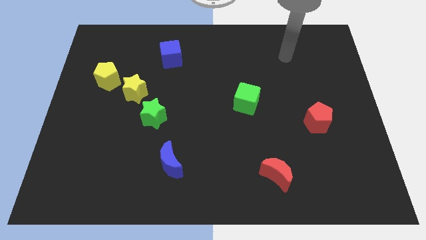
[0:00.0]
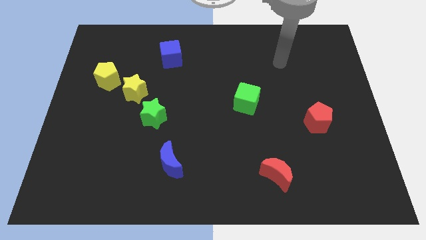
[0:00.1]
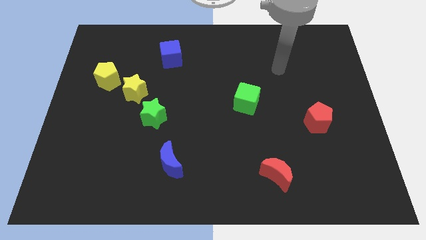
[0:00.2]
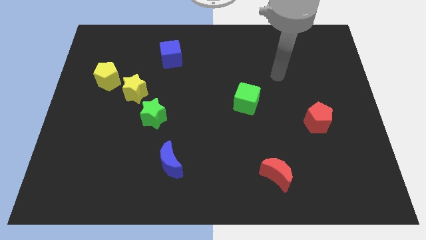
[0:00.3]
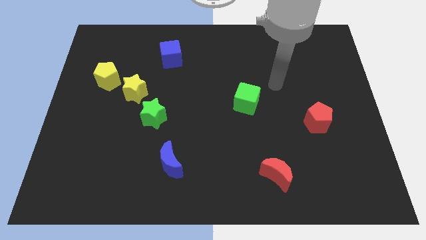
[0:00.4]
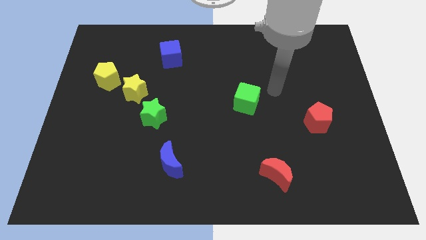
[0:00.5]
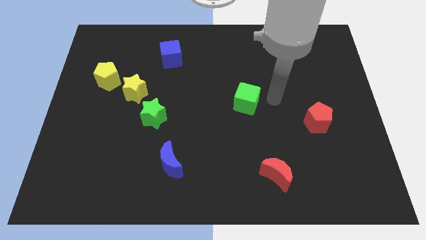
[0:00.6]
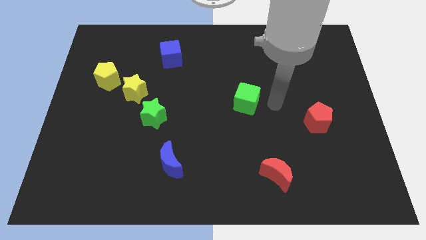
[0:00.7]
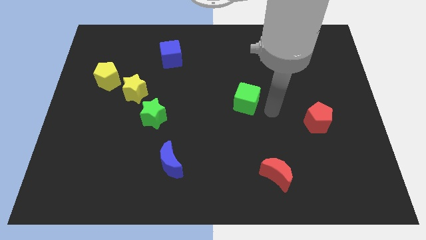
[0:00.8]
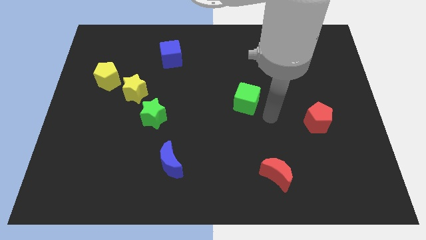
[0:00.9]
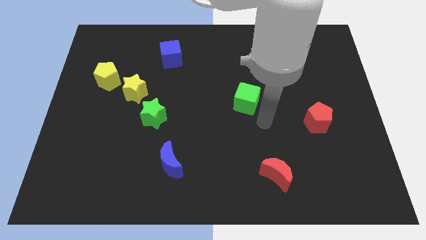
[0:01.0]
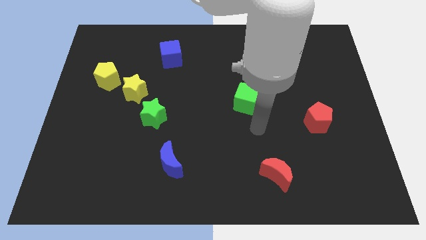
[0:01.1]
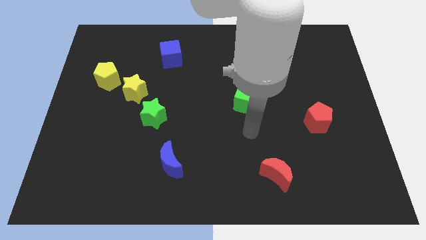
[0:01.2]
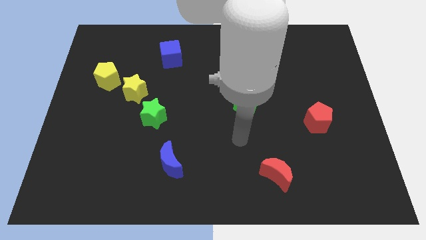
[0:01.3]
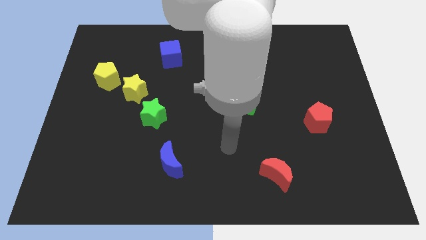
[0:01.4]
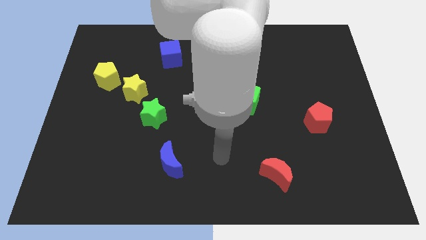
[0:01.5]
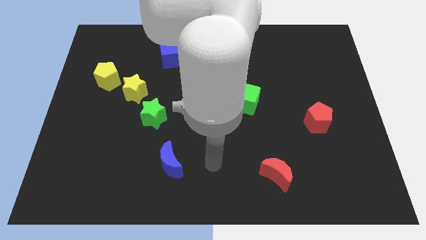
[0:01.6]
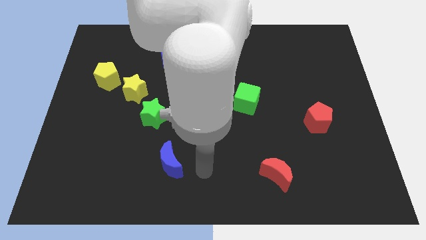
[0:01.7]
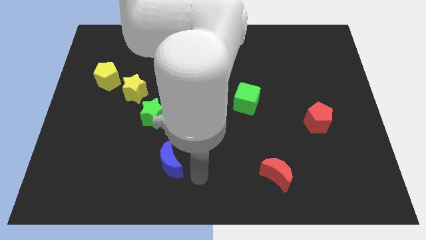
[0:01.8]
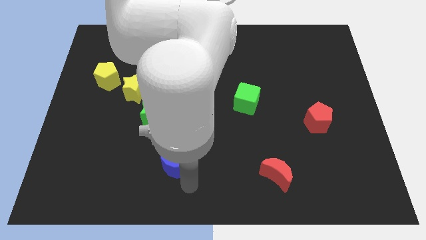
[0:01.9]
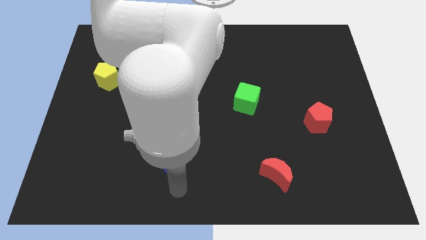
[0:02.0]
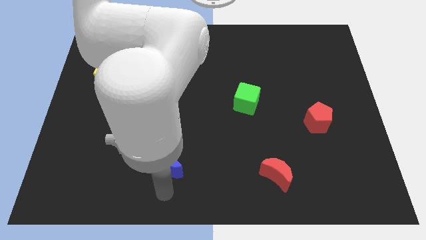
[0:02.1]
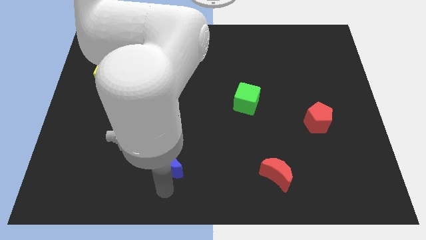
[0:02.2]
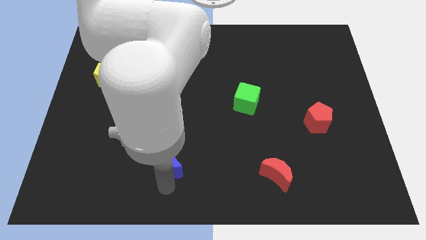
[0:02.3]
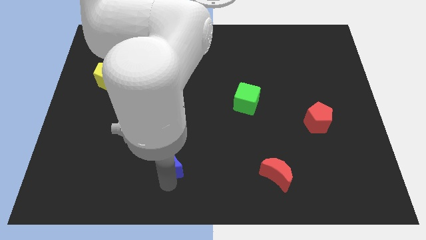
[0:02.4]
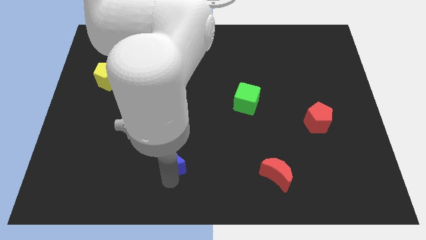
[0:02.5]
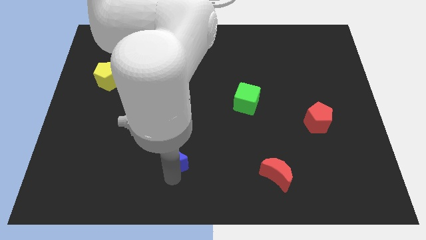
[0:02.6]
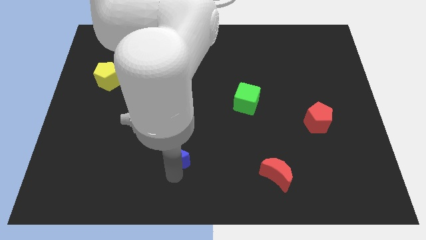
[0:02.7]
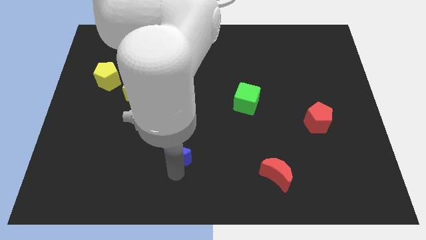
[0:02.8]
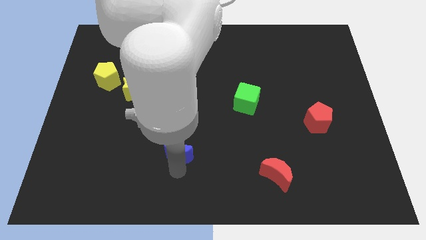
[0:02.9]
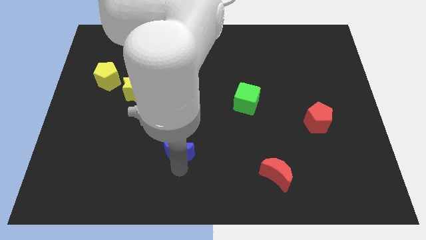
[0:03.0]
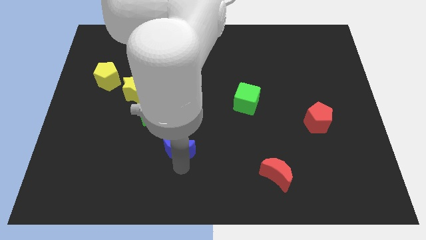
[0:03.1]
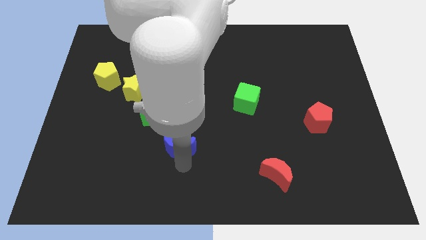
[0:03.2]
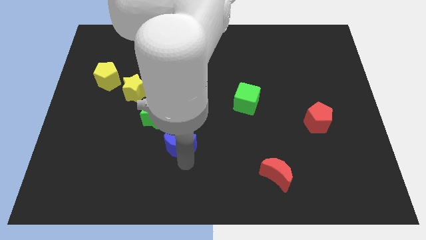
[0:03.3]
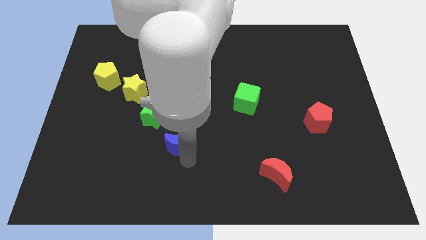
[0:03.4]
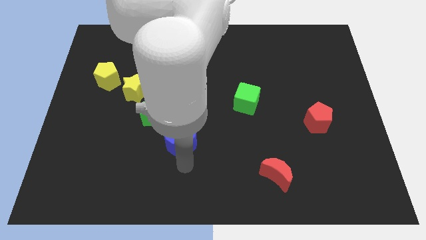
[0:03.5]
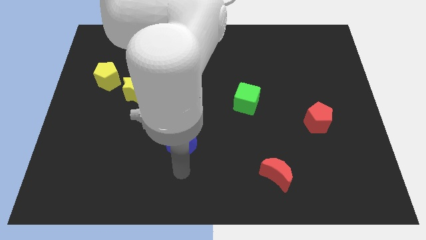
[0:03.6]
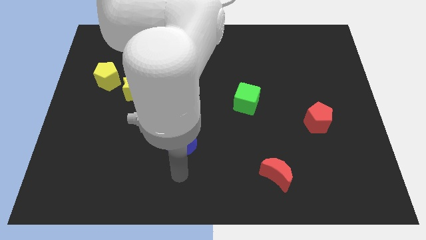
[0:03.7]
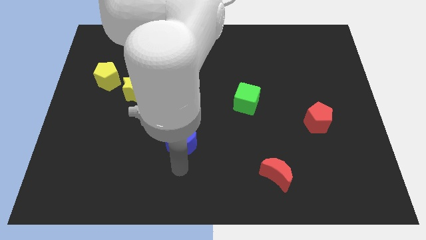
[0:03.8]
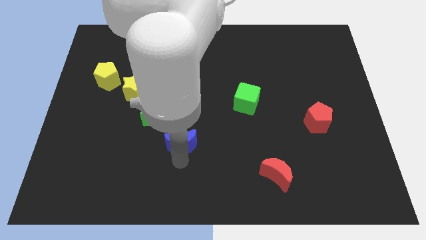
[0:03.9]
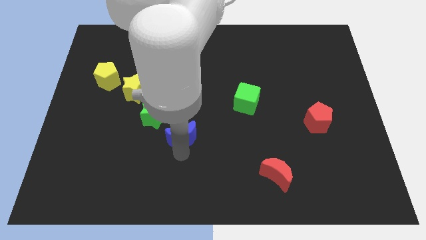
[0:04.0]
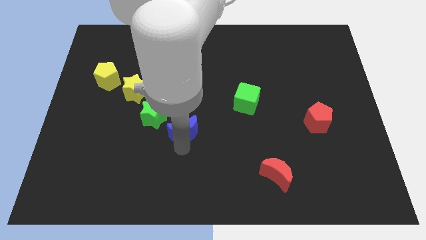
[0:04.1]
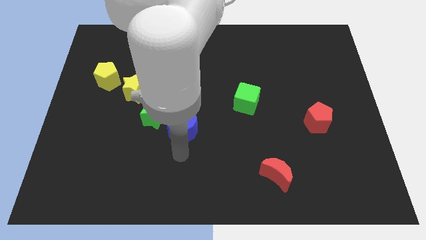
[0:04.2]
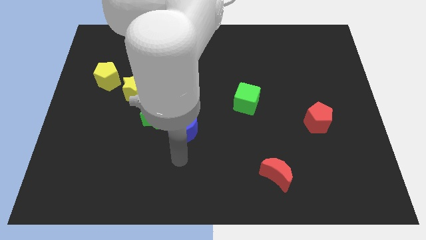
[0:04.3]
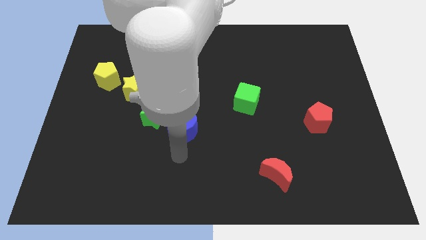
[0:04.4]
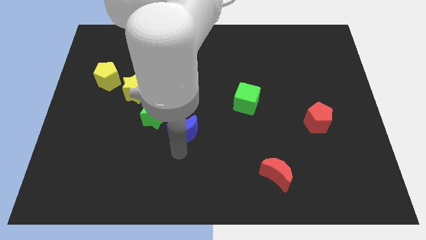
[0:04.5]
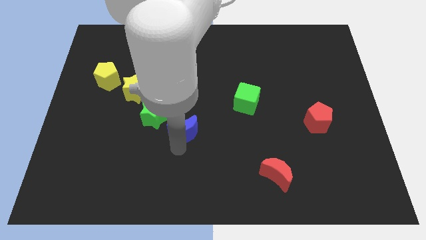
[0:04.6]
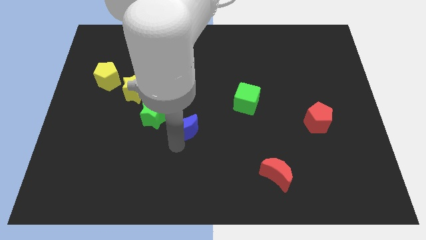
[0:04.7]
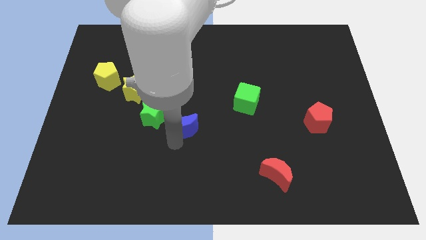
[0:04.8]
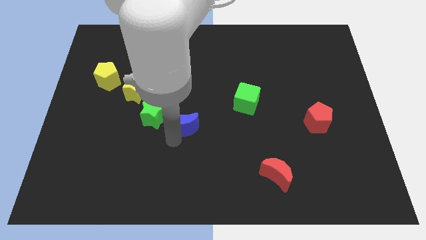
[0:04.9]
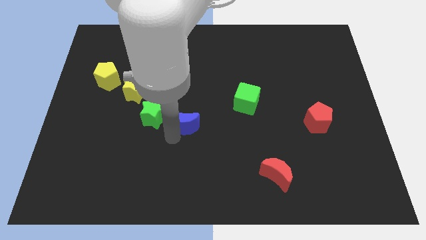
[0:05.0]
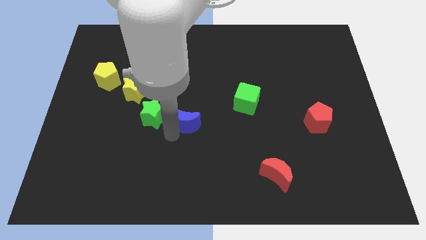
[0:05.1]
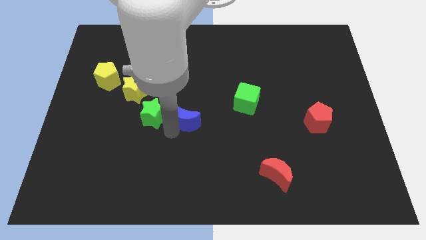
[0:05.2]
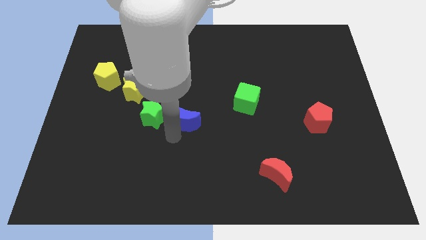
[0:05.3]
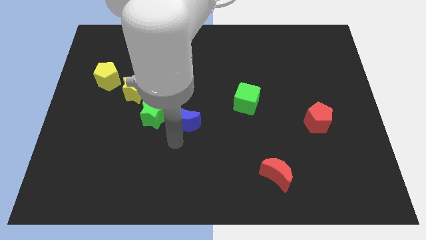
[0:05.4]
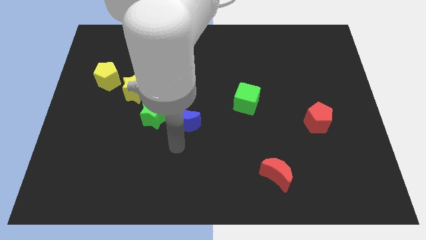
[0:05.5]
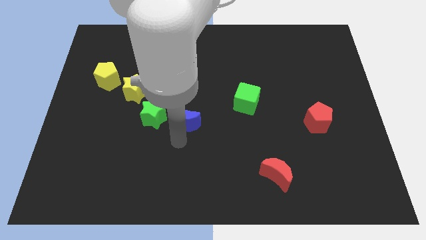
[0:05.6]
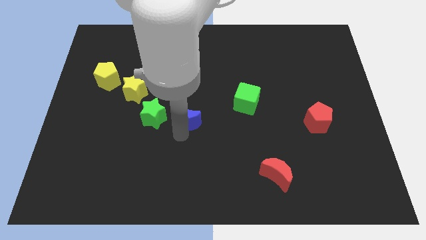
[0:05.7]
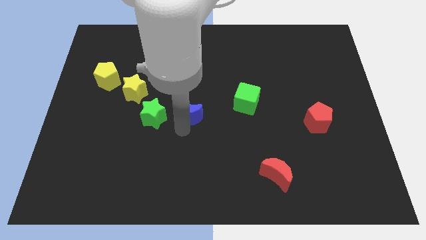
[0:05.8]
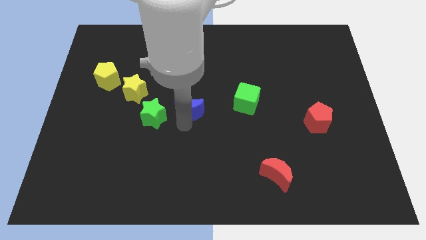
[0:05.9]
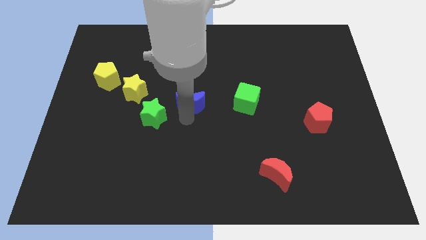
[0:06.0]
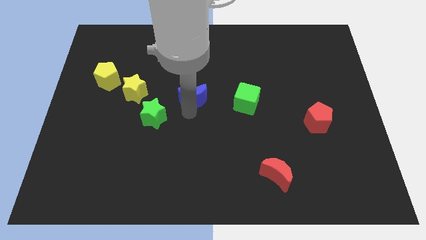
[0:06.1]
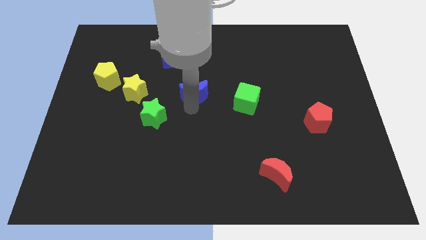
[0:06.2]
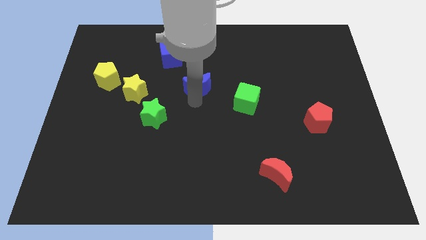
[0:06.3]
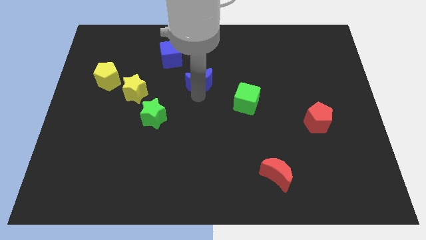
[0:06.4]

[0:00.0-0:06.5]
put the blue moon diagonally down and to the right of the blue cube
